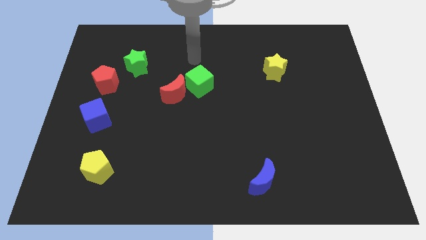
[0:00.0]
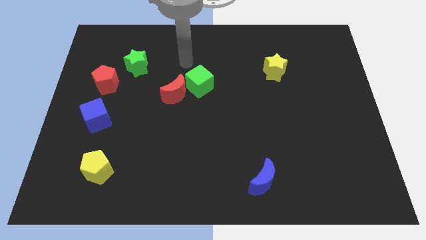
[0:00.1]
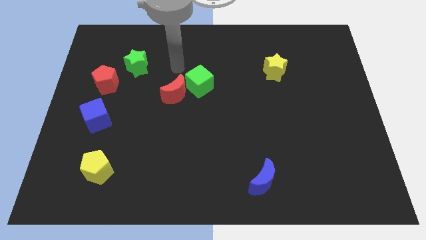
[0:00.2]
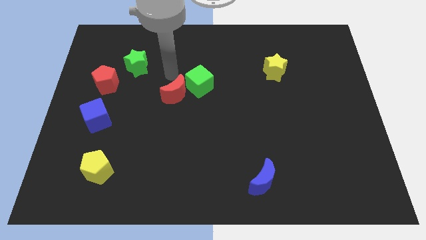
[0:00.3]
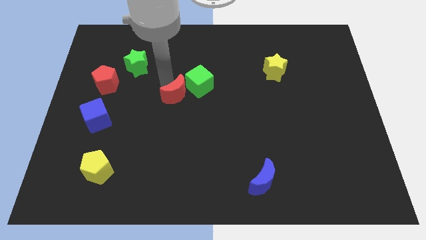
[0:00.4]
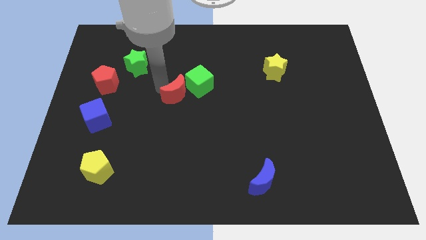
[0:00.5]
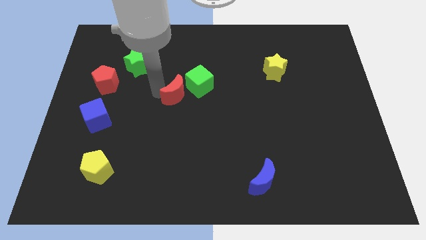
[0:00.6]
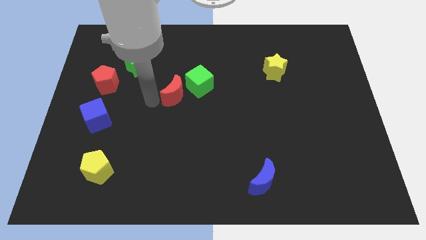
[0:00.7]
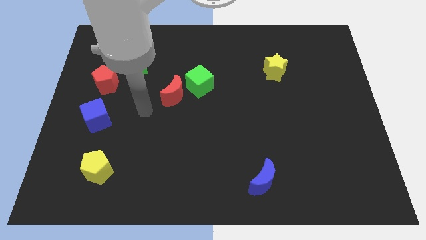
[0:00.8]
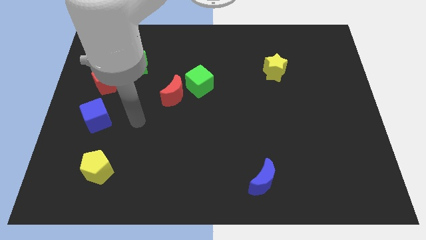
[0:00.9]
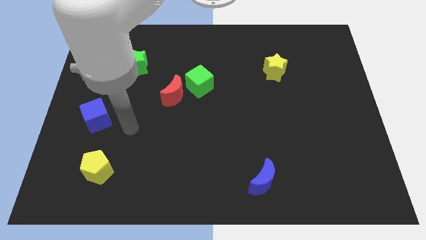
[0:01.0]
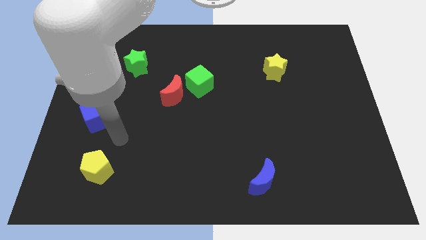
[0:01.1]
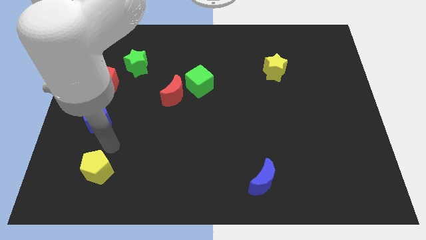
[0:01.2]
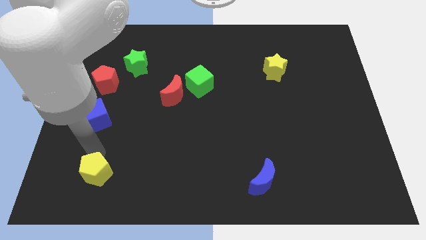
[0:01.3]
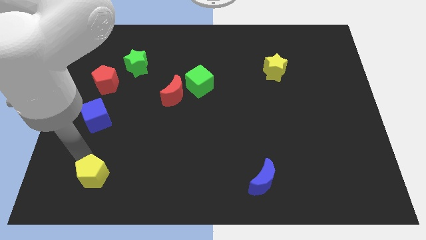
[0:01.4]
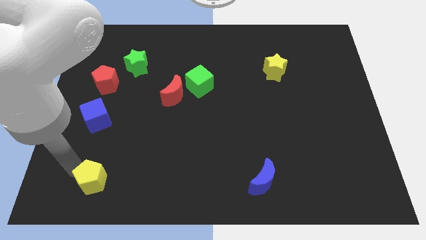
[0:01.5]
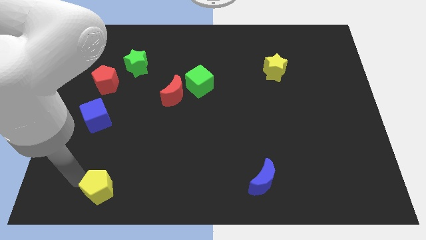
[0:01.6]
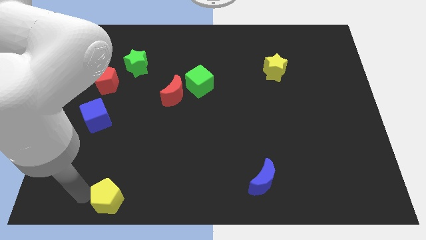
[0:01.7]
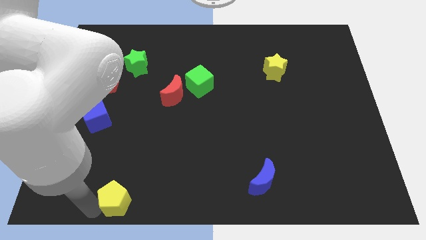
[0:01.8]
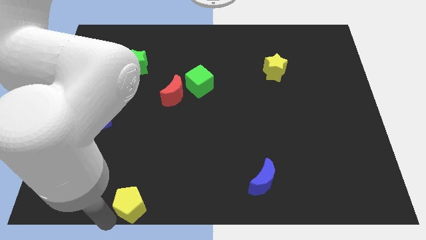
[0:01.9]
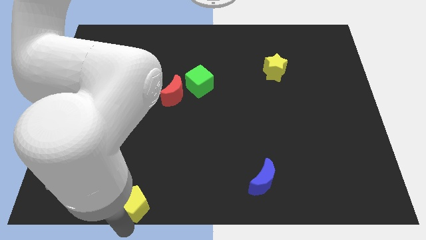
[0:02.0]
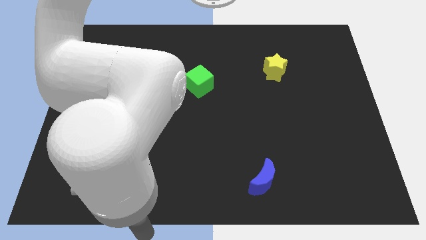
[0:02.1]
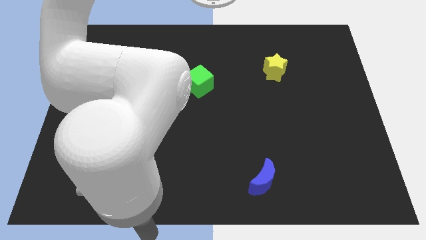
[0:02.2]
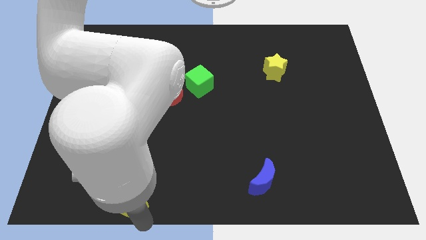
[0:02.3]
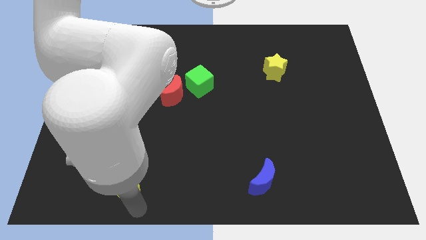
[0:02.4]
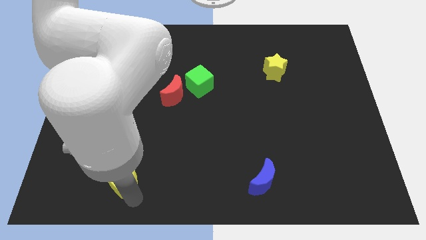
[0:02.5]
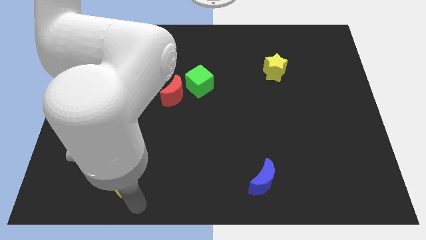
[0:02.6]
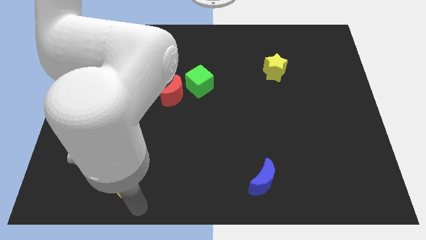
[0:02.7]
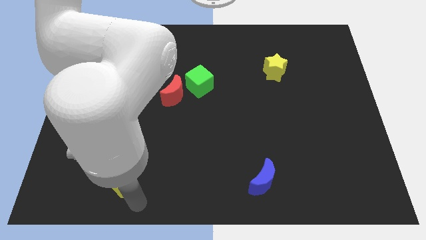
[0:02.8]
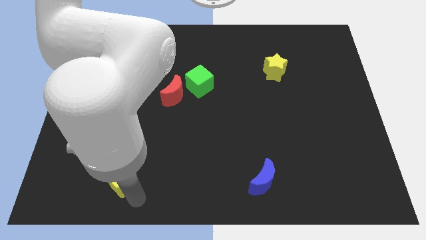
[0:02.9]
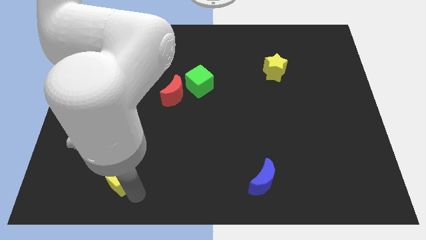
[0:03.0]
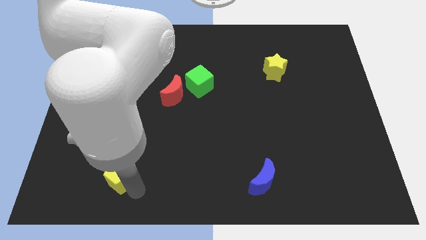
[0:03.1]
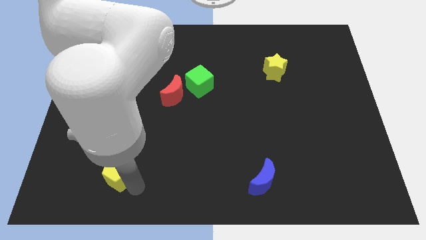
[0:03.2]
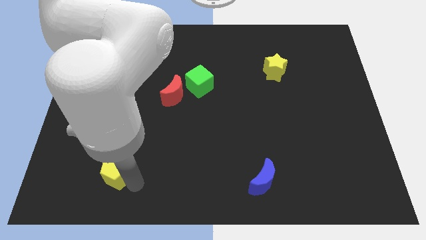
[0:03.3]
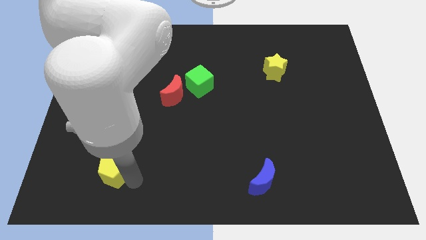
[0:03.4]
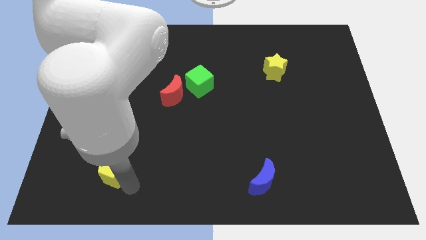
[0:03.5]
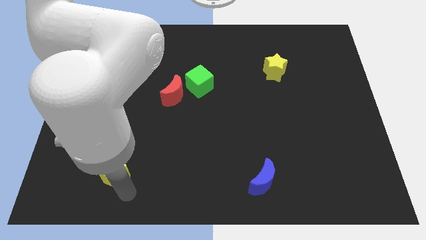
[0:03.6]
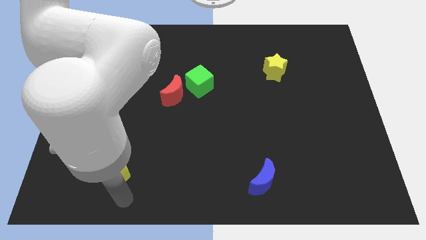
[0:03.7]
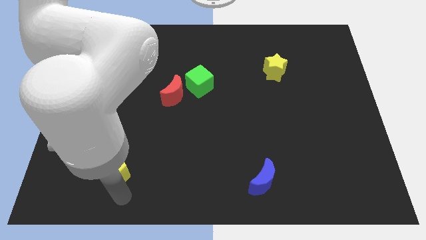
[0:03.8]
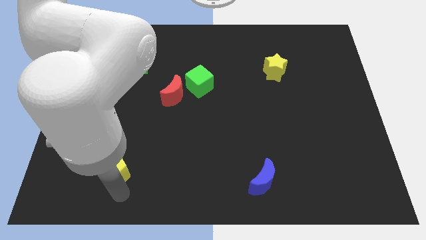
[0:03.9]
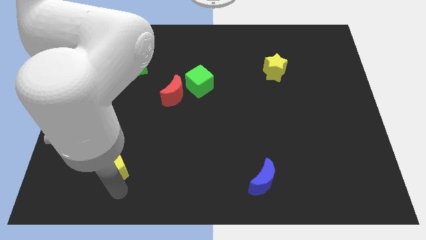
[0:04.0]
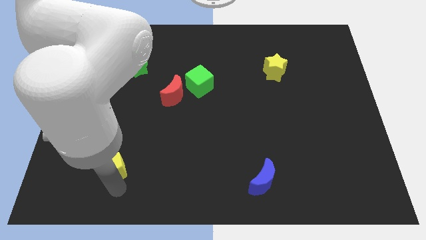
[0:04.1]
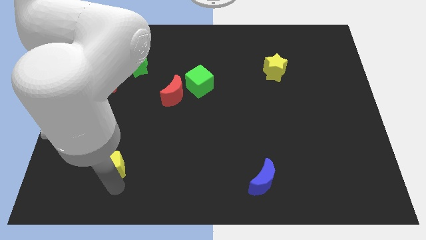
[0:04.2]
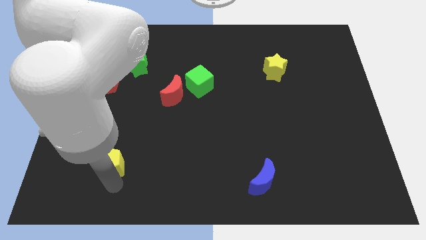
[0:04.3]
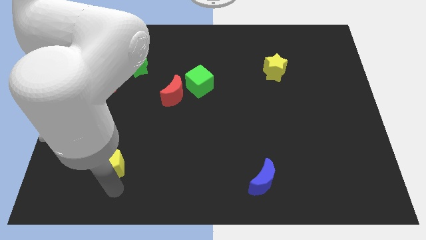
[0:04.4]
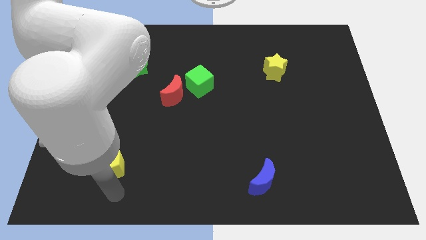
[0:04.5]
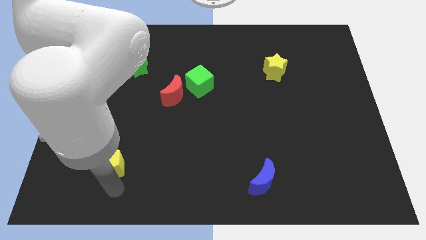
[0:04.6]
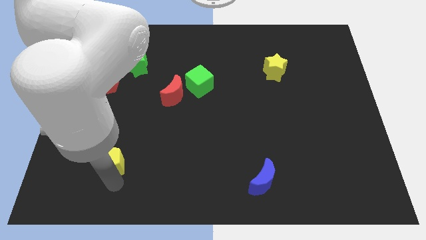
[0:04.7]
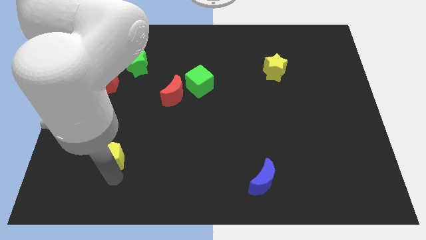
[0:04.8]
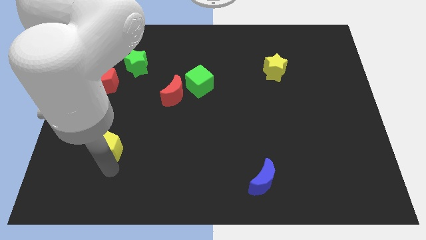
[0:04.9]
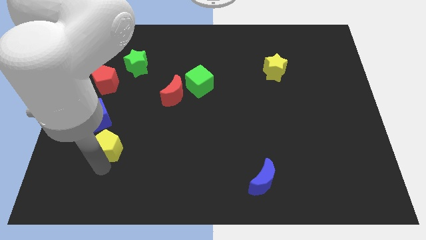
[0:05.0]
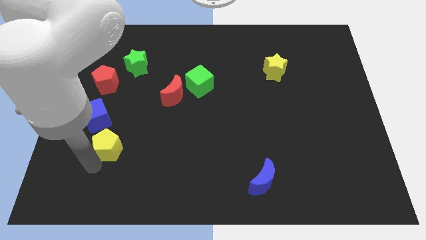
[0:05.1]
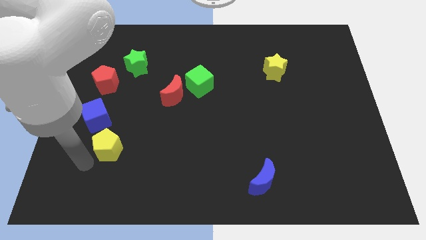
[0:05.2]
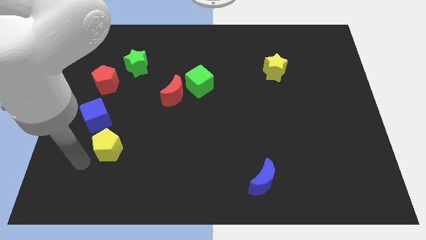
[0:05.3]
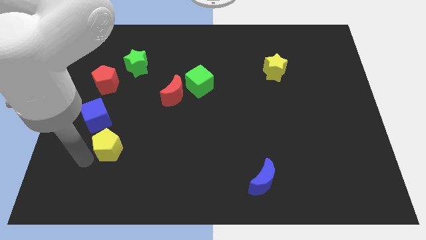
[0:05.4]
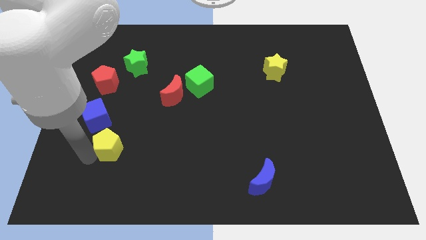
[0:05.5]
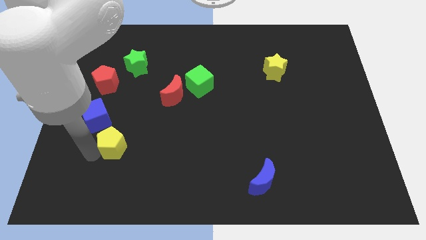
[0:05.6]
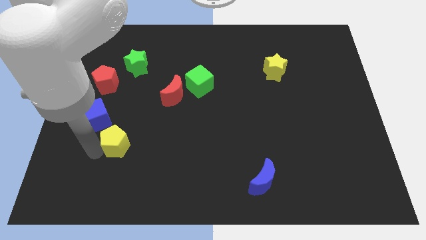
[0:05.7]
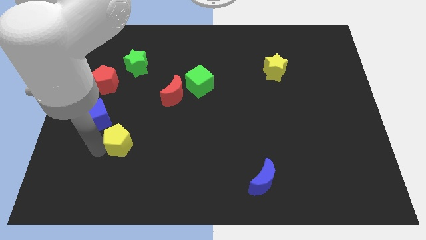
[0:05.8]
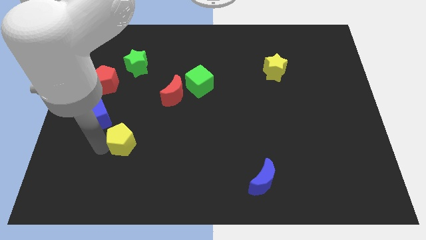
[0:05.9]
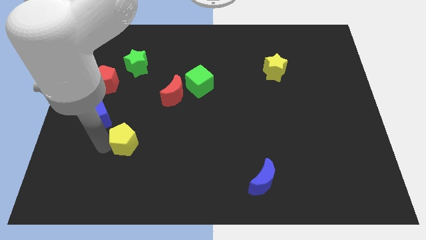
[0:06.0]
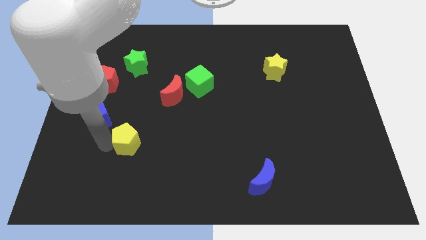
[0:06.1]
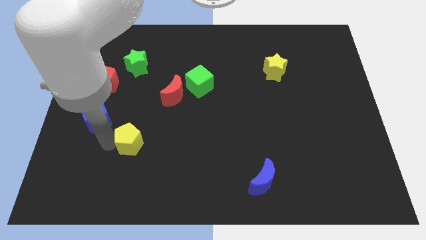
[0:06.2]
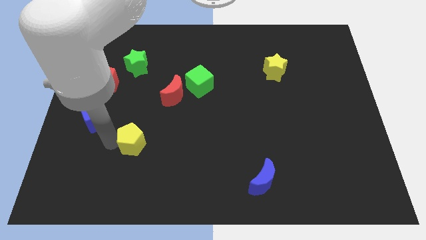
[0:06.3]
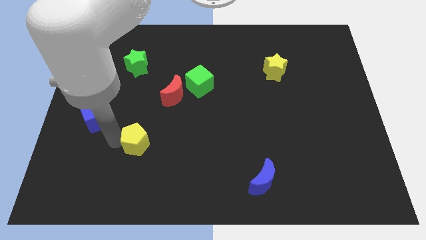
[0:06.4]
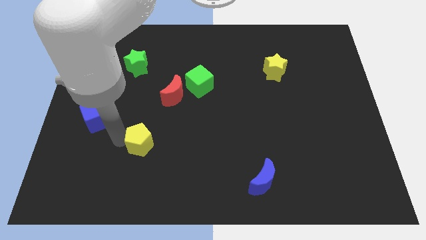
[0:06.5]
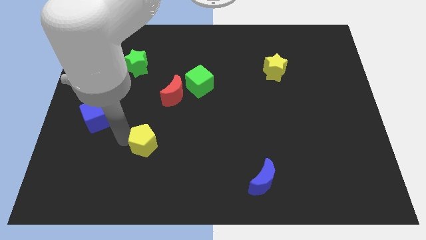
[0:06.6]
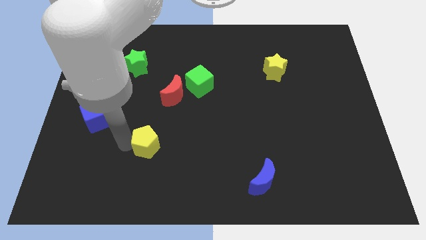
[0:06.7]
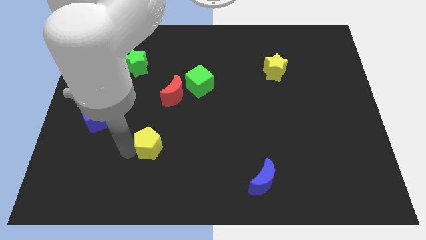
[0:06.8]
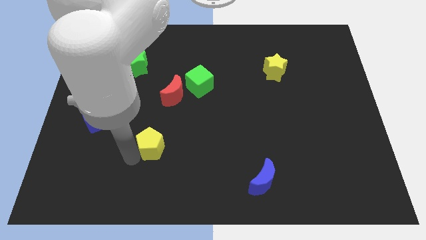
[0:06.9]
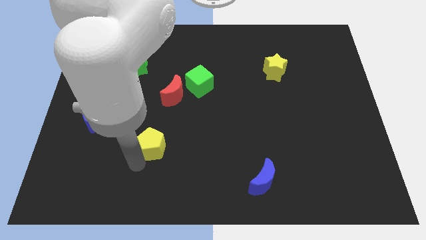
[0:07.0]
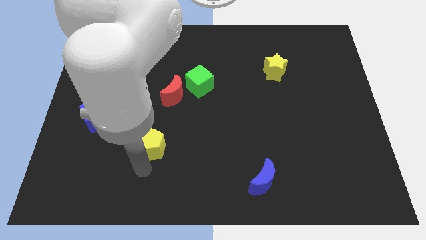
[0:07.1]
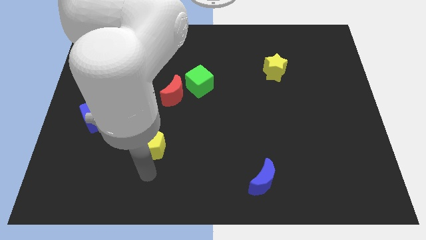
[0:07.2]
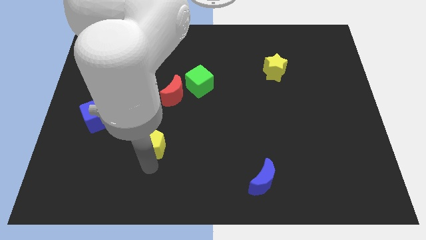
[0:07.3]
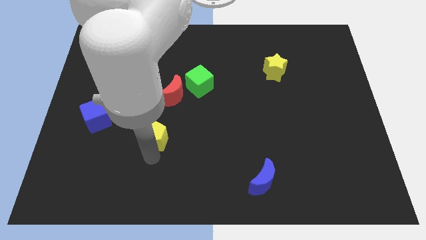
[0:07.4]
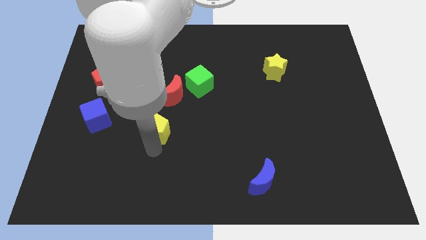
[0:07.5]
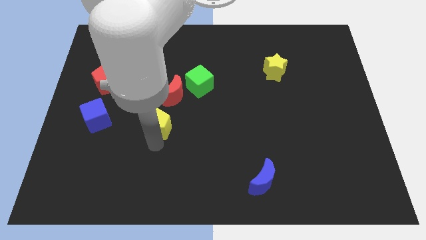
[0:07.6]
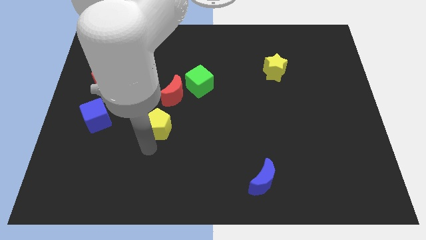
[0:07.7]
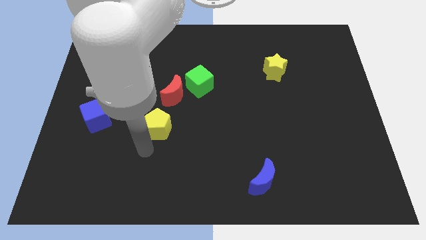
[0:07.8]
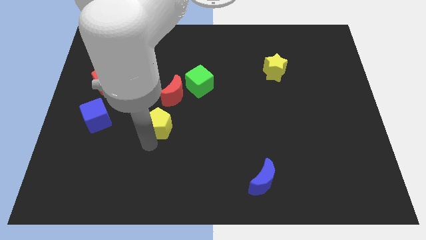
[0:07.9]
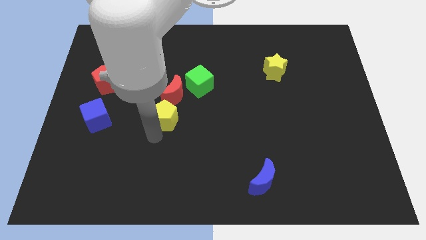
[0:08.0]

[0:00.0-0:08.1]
move the yellow pentagon to the bottom left of the green cube
